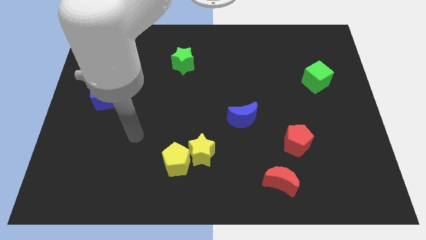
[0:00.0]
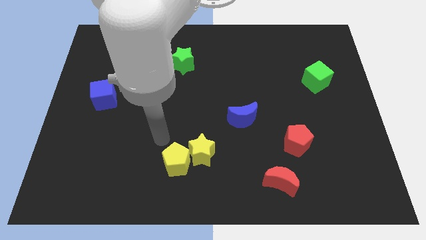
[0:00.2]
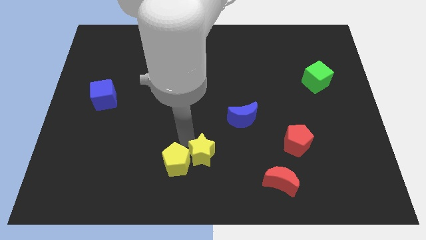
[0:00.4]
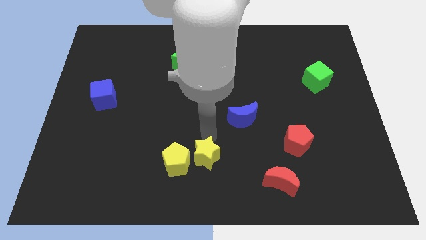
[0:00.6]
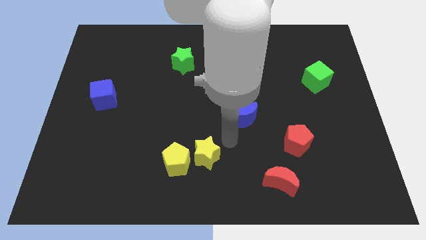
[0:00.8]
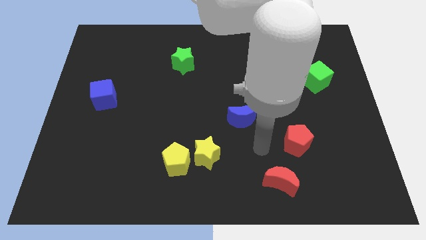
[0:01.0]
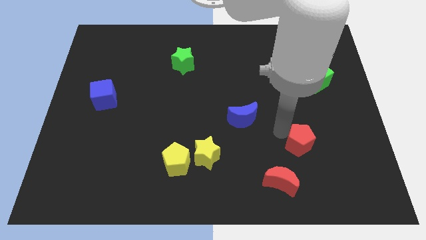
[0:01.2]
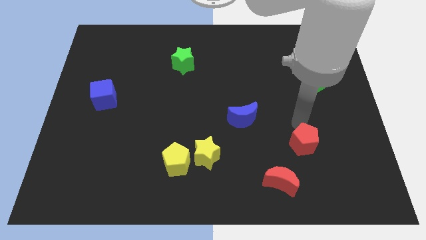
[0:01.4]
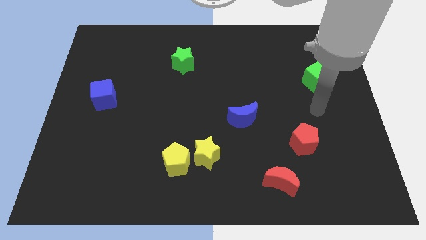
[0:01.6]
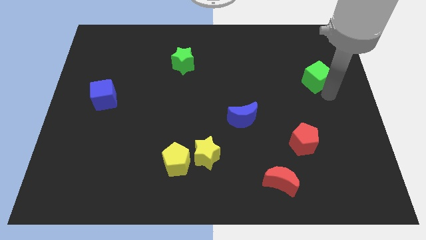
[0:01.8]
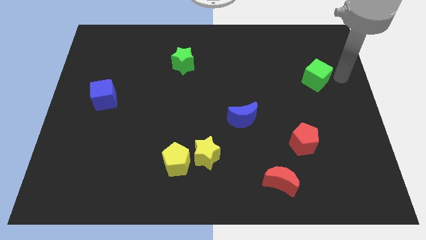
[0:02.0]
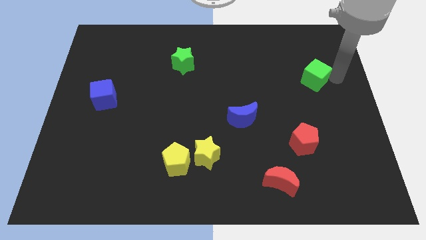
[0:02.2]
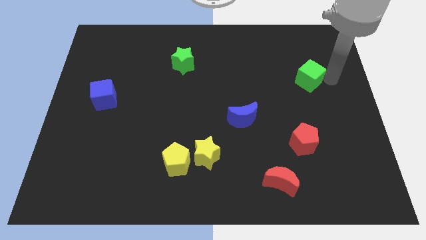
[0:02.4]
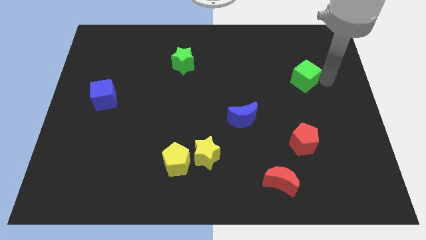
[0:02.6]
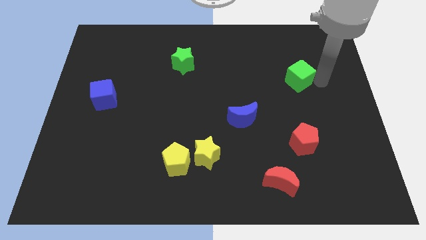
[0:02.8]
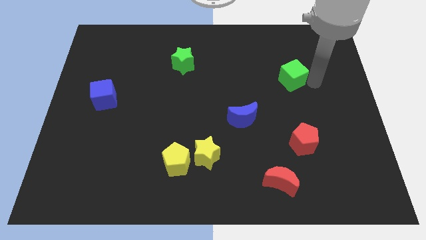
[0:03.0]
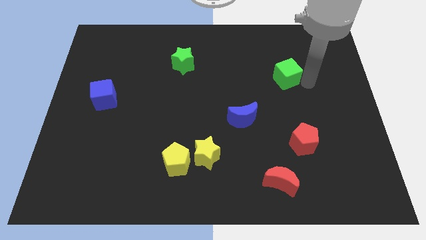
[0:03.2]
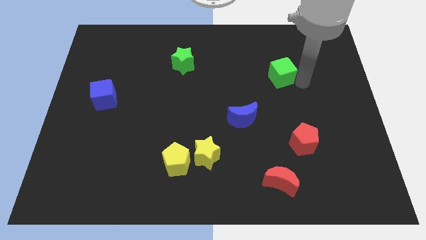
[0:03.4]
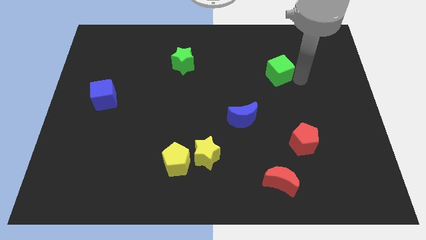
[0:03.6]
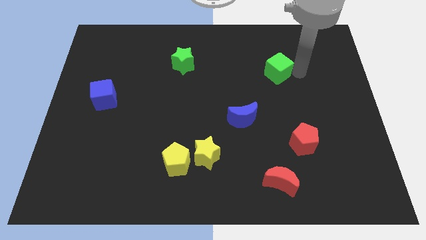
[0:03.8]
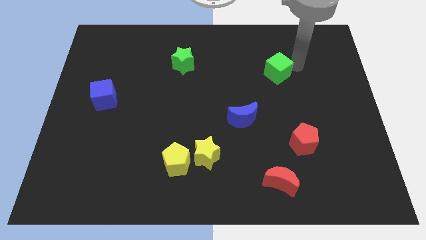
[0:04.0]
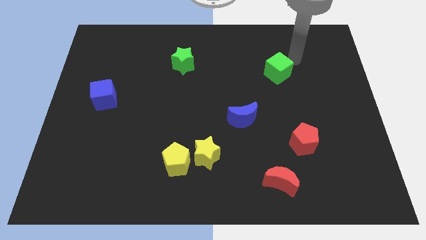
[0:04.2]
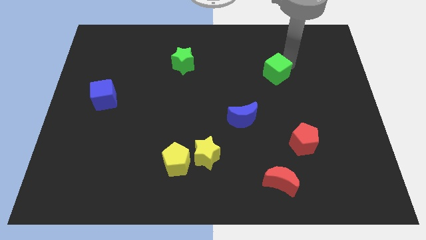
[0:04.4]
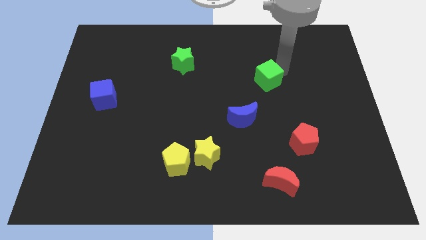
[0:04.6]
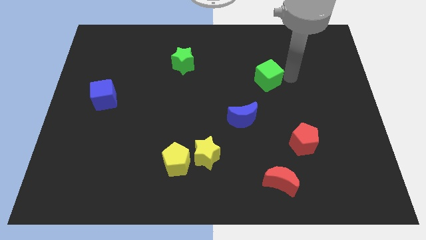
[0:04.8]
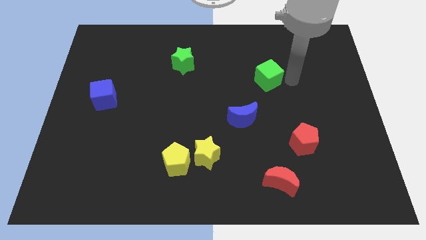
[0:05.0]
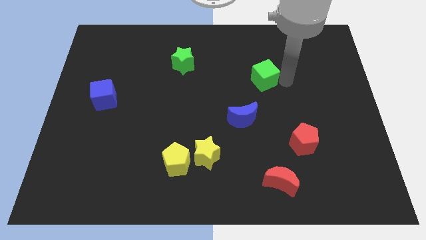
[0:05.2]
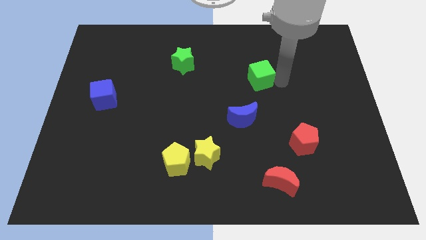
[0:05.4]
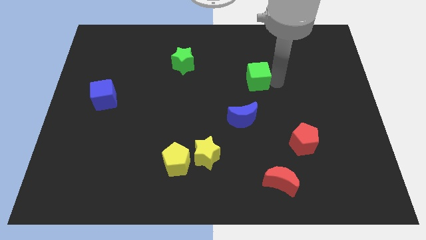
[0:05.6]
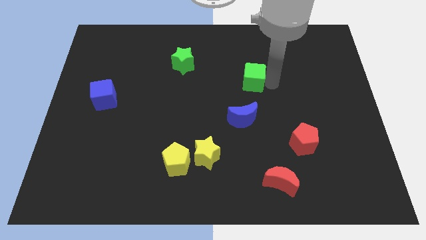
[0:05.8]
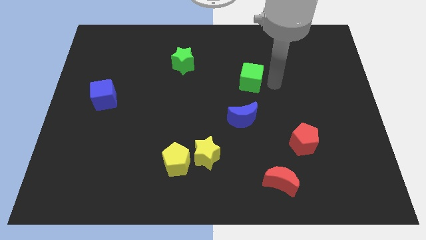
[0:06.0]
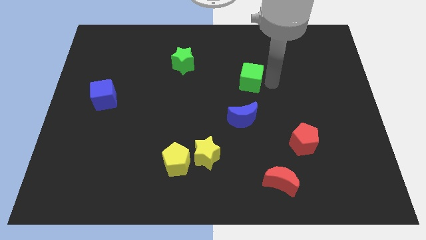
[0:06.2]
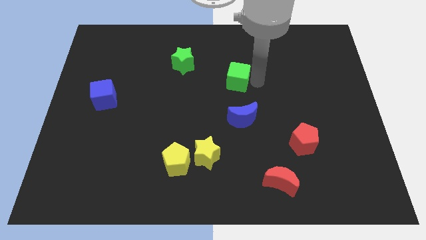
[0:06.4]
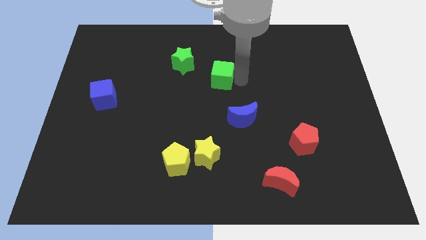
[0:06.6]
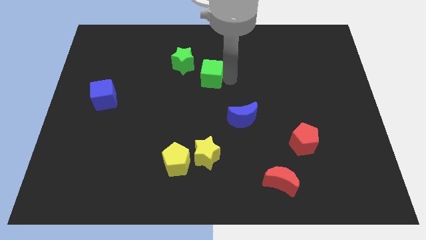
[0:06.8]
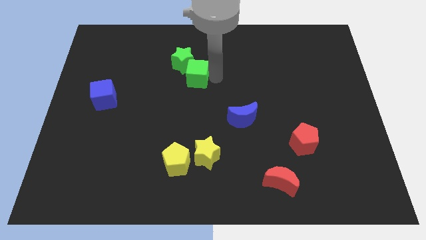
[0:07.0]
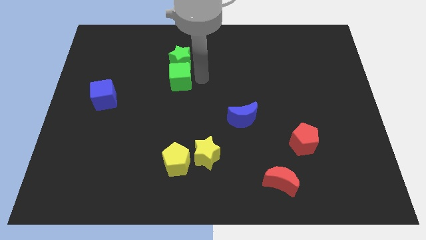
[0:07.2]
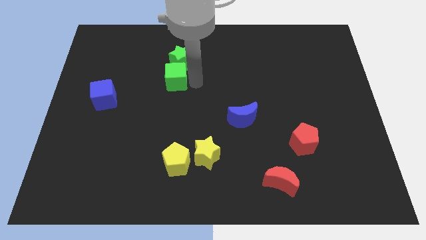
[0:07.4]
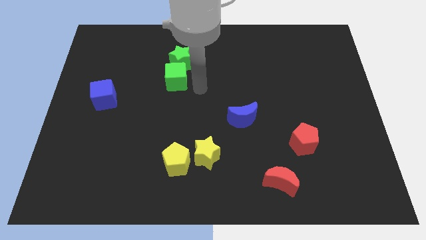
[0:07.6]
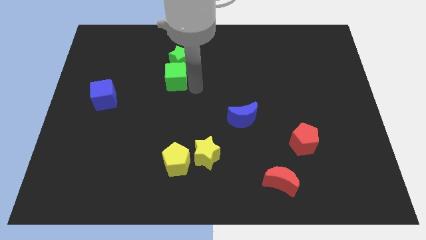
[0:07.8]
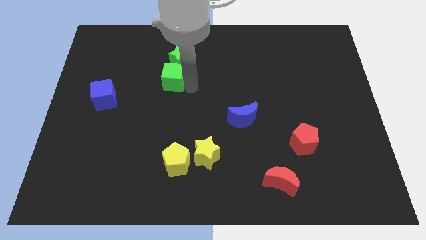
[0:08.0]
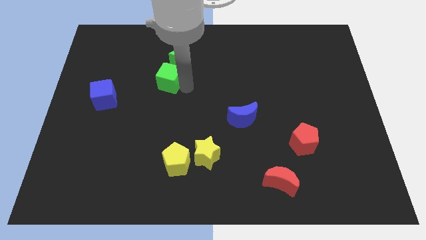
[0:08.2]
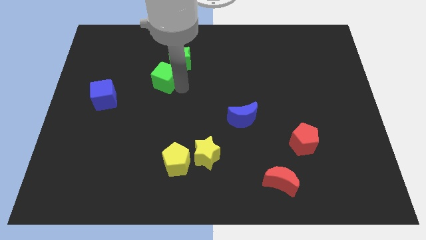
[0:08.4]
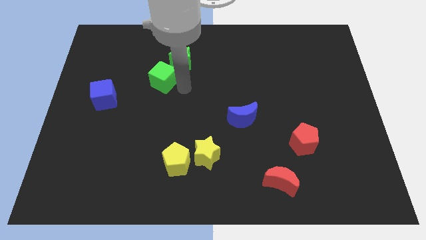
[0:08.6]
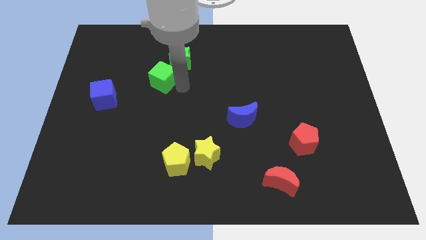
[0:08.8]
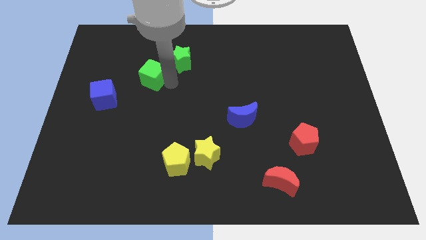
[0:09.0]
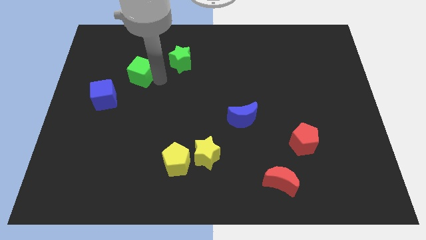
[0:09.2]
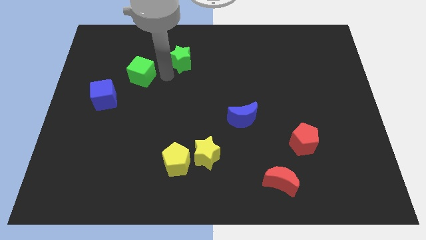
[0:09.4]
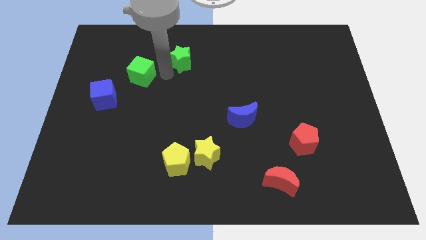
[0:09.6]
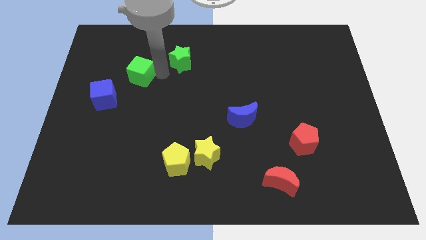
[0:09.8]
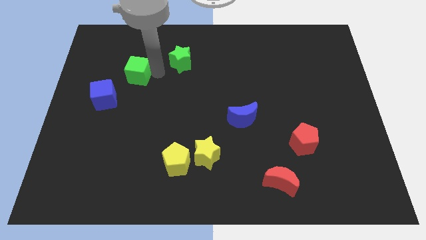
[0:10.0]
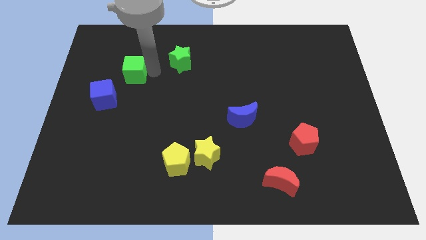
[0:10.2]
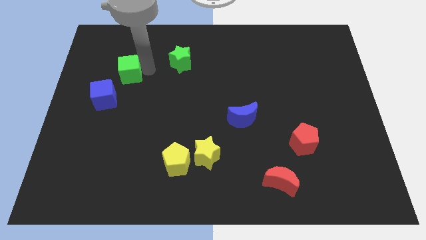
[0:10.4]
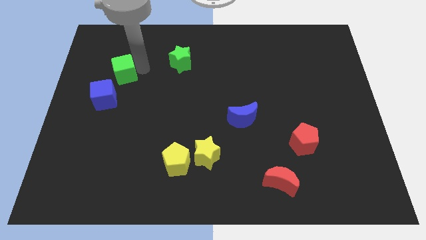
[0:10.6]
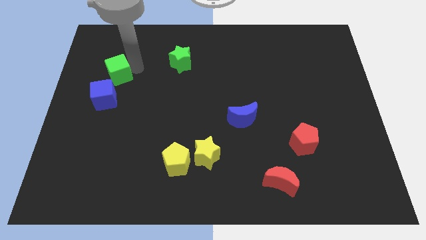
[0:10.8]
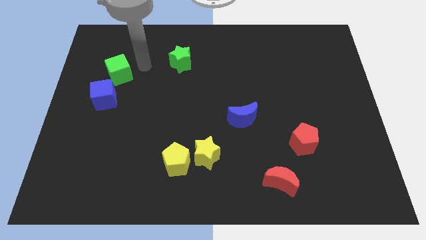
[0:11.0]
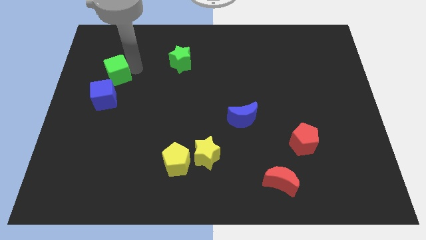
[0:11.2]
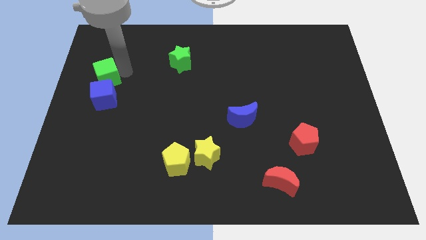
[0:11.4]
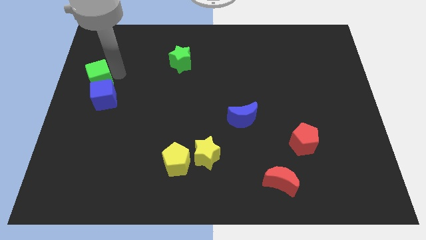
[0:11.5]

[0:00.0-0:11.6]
push the green cube to the left side

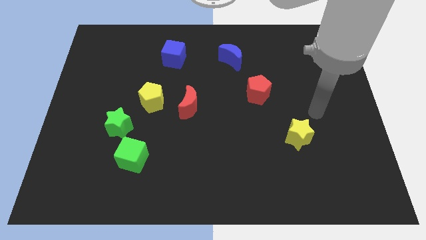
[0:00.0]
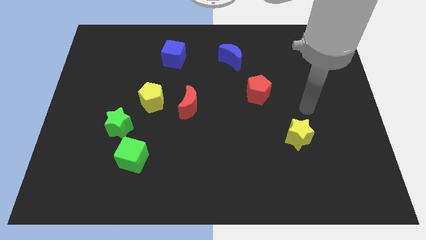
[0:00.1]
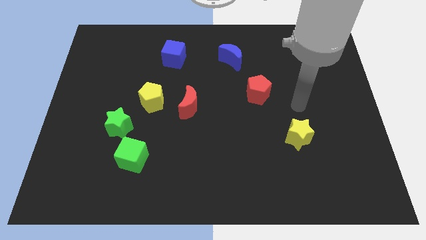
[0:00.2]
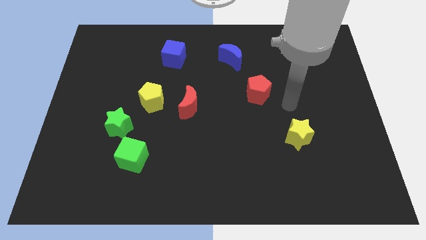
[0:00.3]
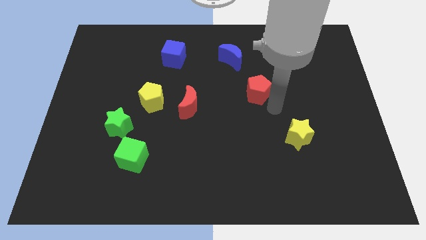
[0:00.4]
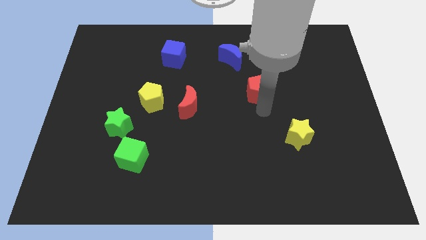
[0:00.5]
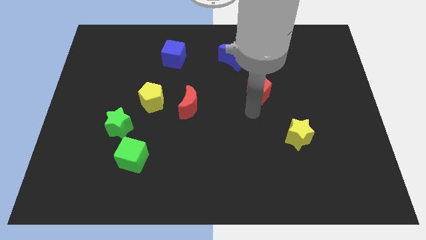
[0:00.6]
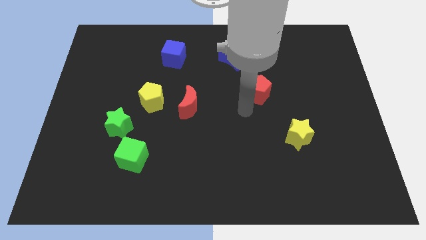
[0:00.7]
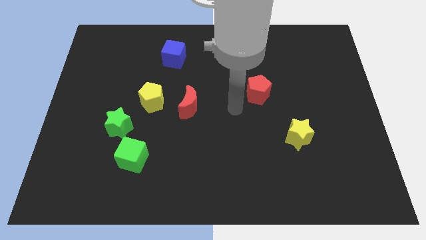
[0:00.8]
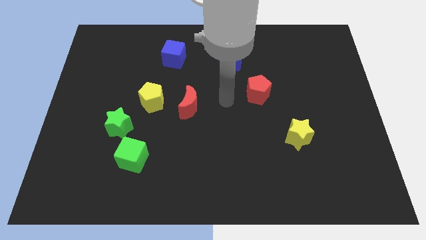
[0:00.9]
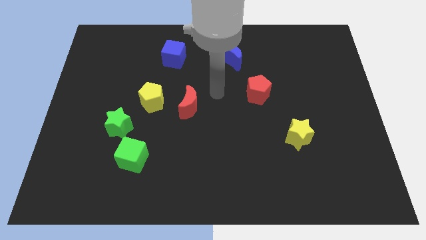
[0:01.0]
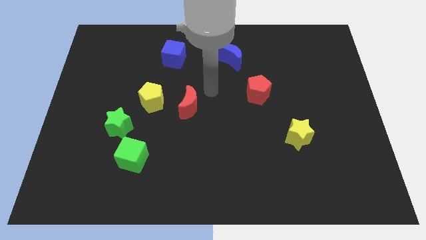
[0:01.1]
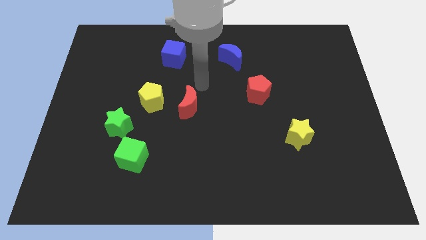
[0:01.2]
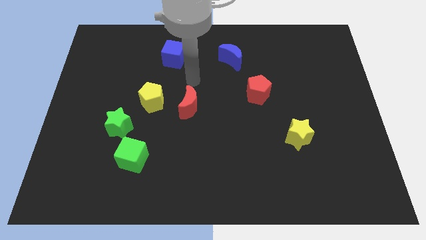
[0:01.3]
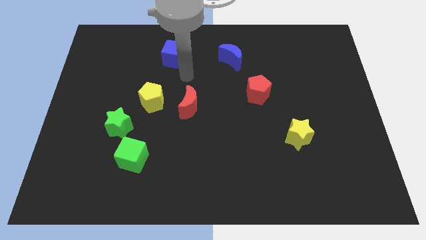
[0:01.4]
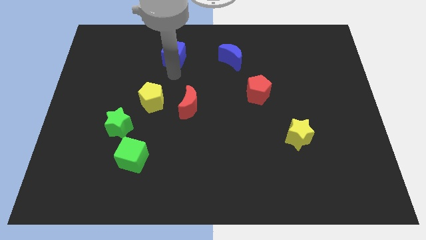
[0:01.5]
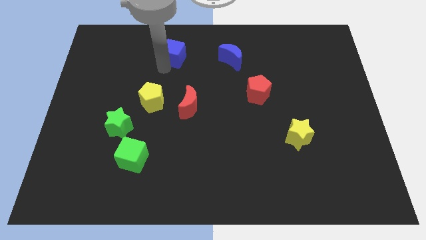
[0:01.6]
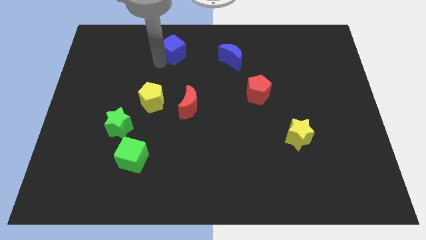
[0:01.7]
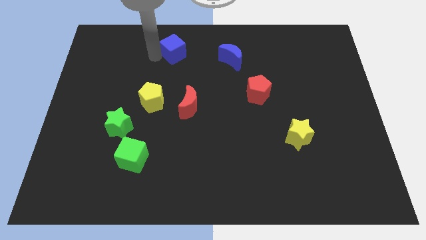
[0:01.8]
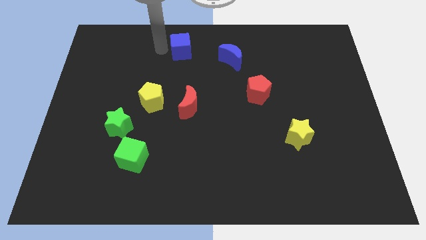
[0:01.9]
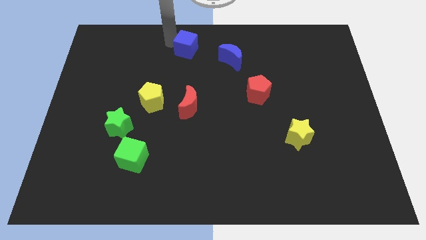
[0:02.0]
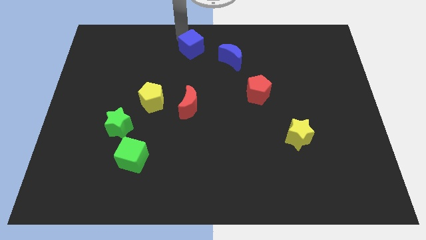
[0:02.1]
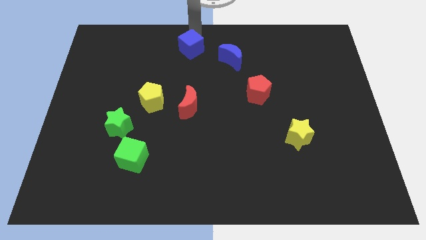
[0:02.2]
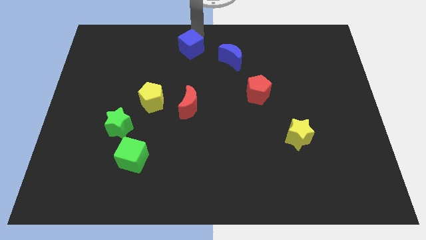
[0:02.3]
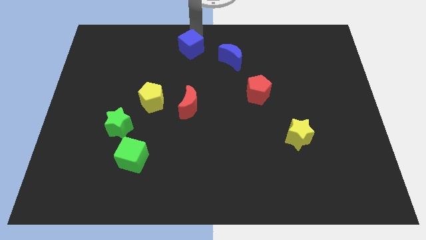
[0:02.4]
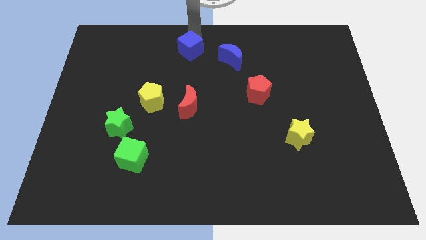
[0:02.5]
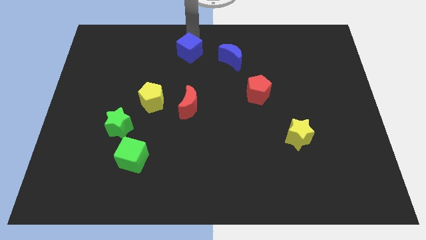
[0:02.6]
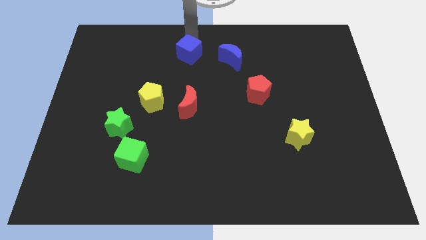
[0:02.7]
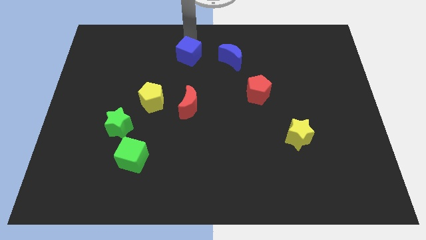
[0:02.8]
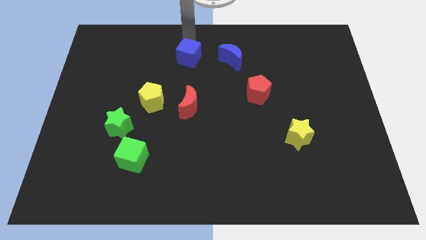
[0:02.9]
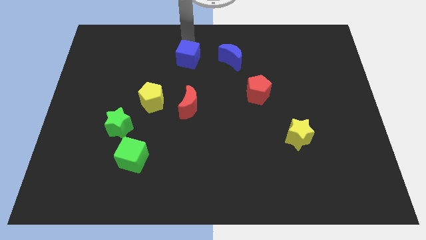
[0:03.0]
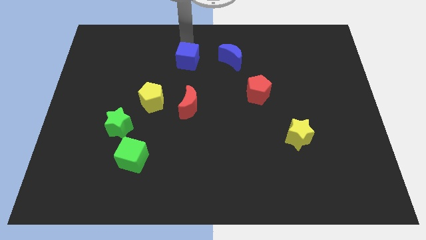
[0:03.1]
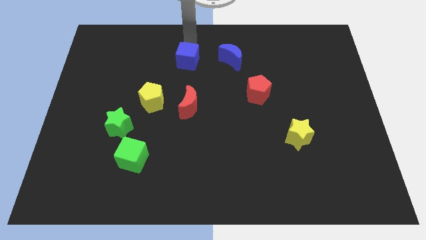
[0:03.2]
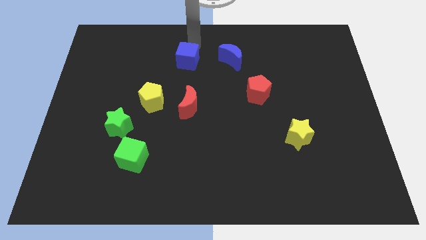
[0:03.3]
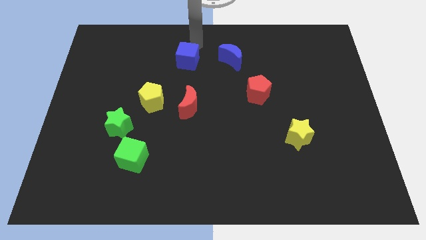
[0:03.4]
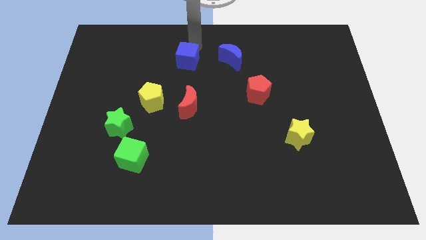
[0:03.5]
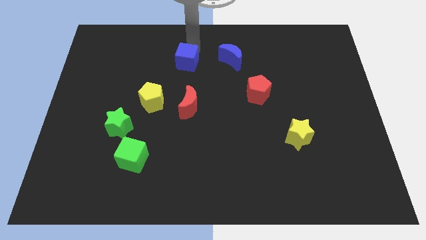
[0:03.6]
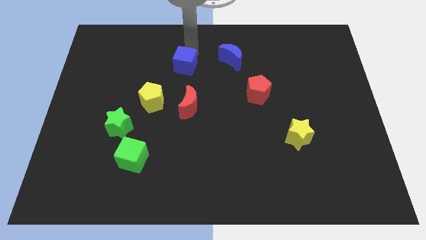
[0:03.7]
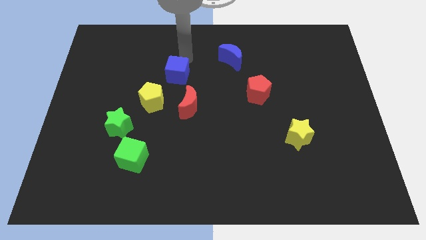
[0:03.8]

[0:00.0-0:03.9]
put the blue cube to the center of the board
